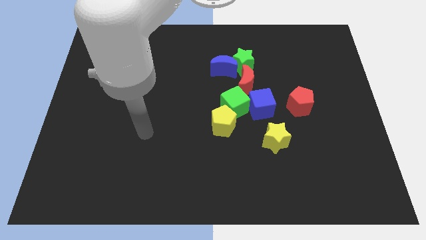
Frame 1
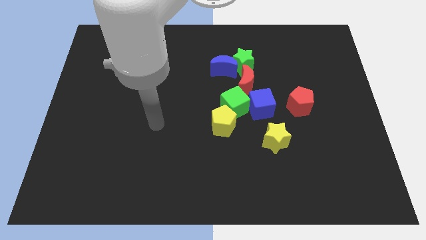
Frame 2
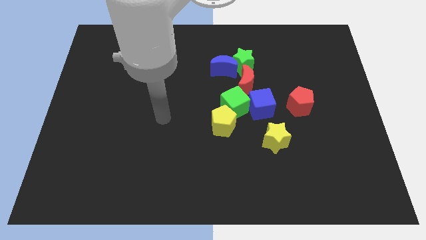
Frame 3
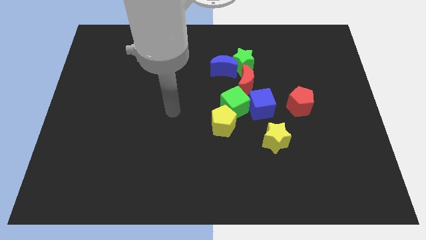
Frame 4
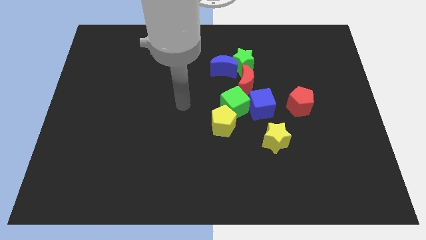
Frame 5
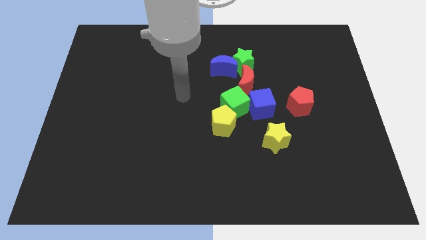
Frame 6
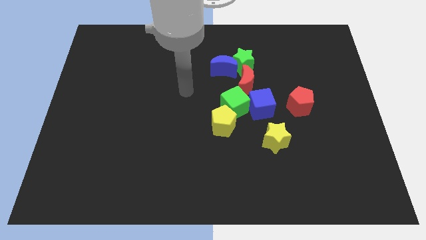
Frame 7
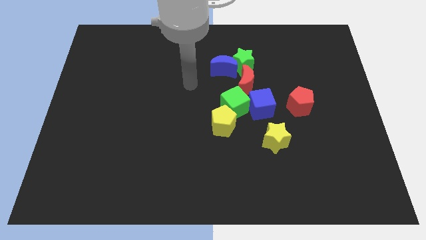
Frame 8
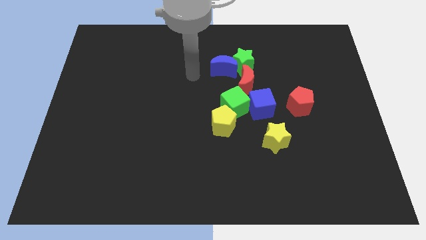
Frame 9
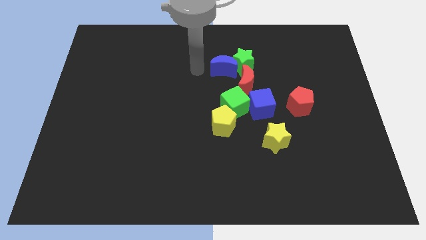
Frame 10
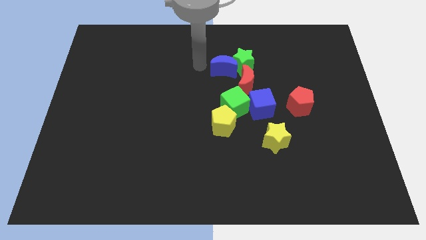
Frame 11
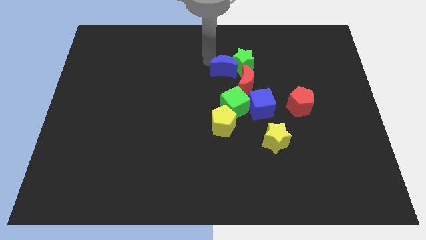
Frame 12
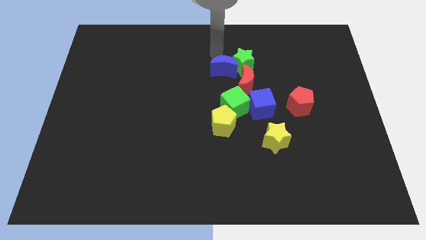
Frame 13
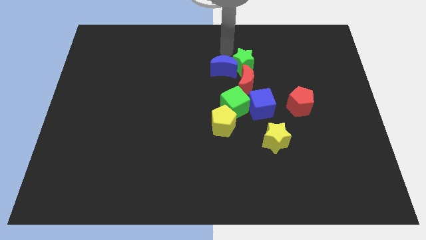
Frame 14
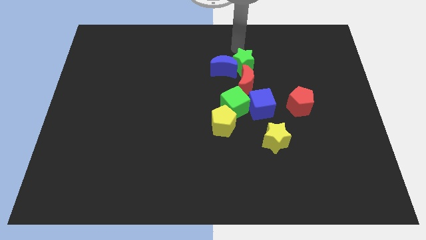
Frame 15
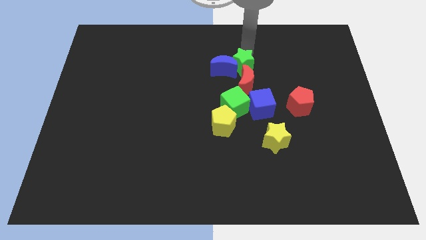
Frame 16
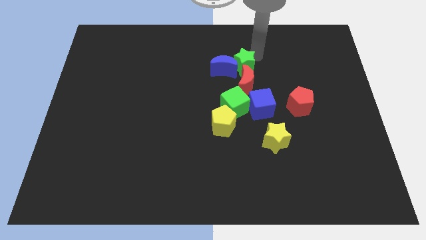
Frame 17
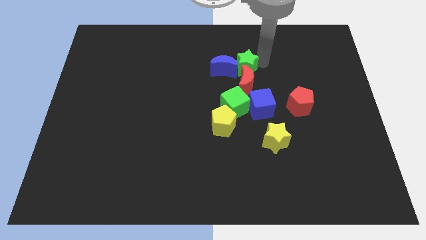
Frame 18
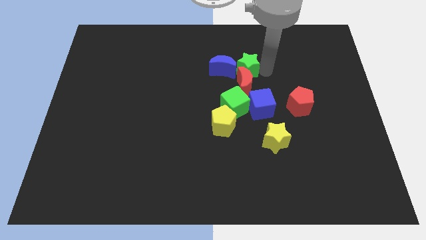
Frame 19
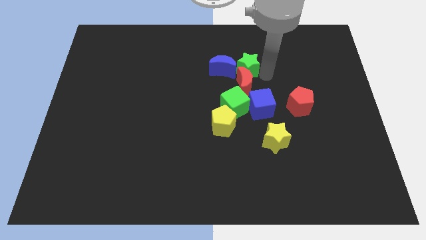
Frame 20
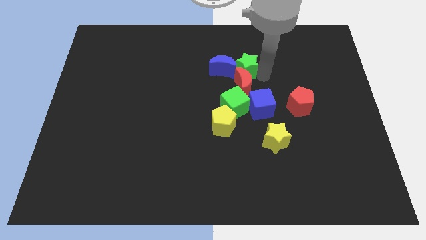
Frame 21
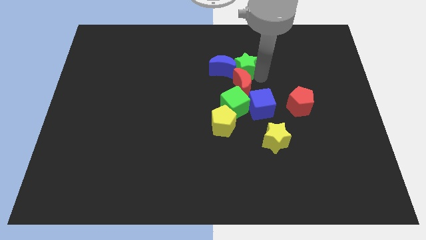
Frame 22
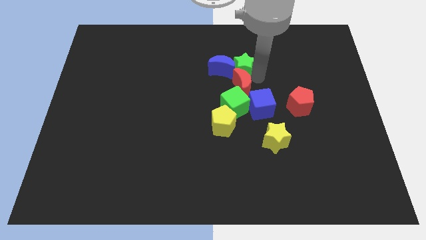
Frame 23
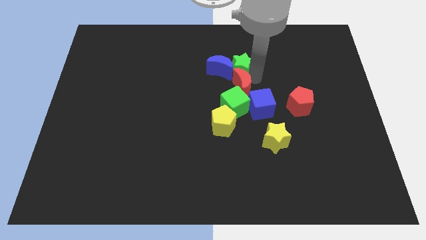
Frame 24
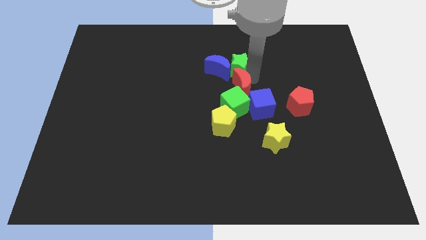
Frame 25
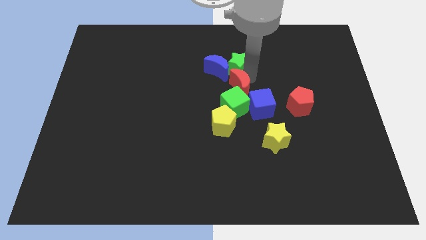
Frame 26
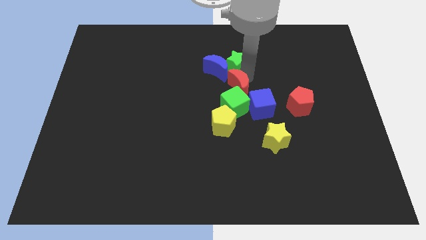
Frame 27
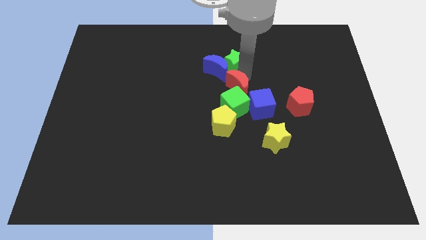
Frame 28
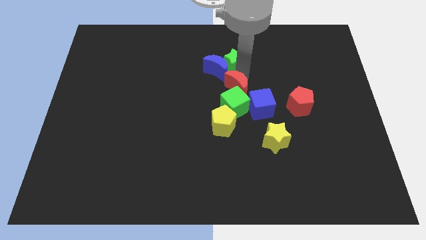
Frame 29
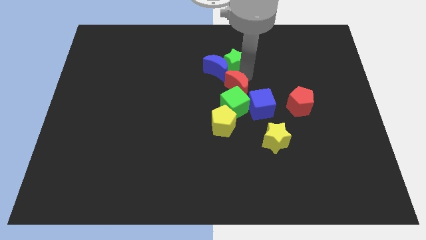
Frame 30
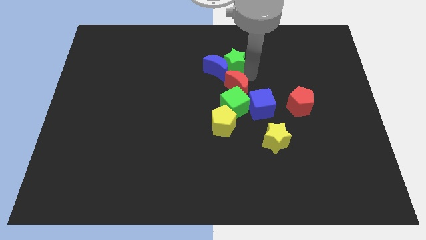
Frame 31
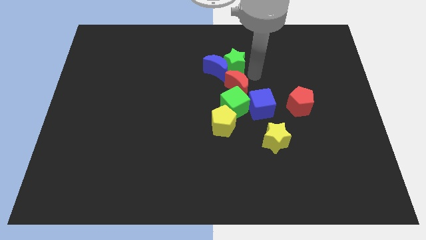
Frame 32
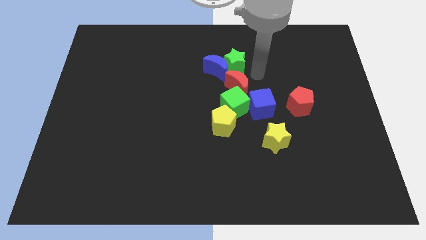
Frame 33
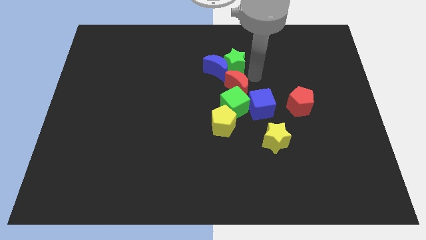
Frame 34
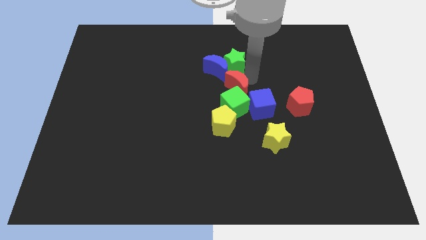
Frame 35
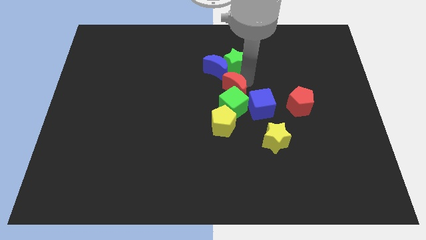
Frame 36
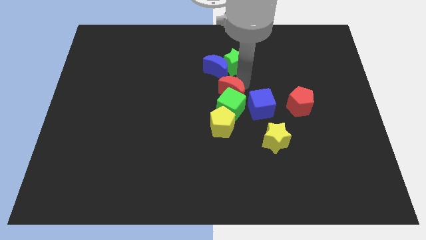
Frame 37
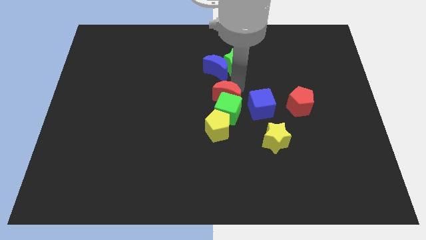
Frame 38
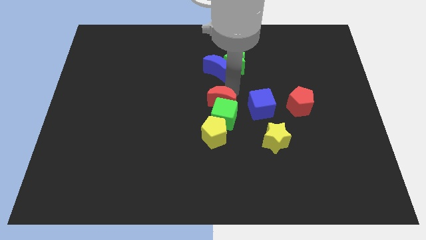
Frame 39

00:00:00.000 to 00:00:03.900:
slide the red moon downwards and to the left a bit

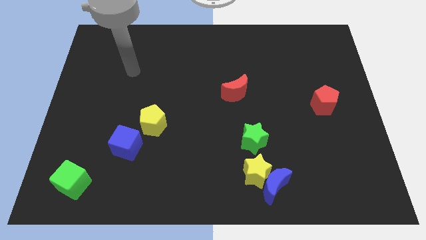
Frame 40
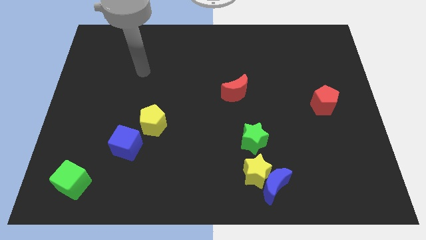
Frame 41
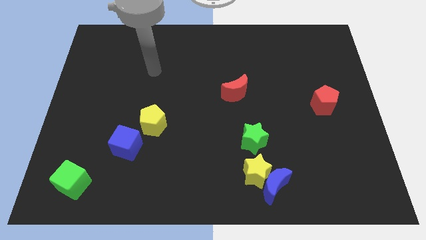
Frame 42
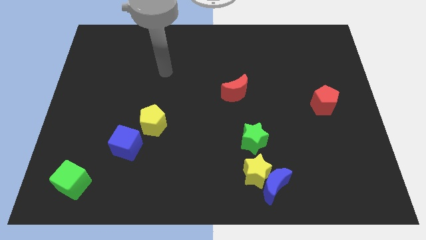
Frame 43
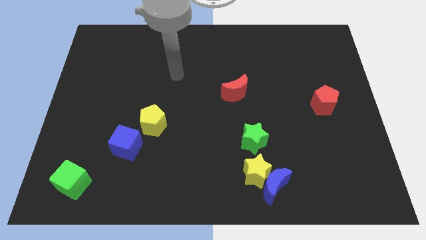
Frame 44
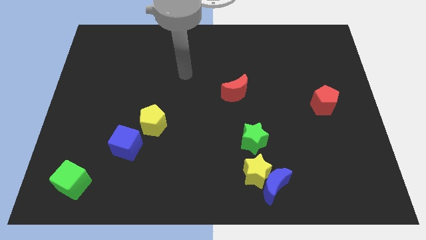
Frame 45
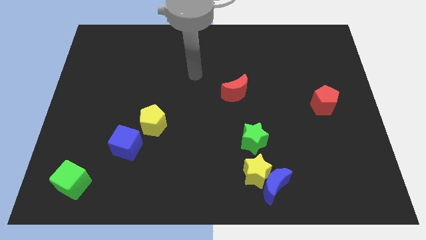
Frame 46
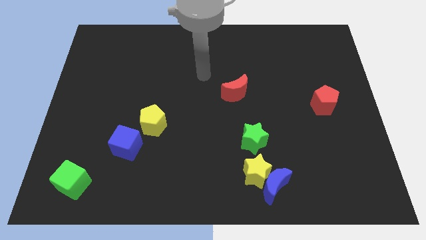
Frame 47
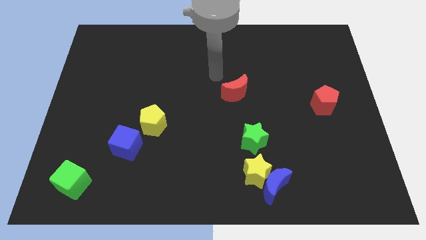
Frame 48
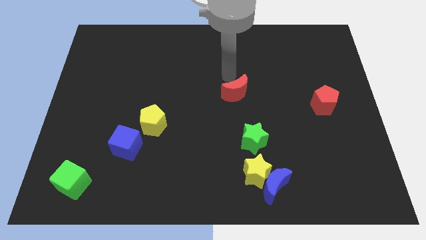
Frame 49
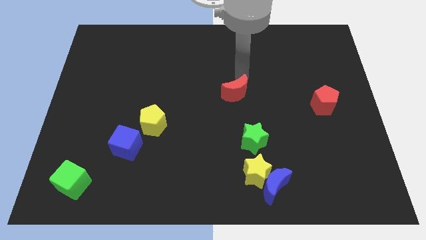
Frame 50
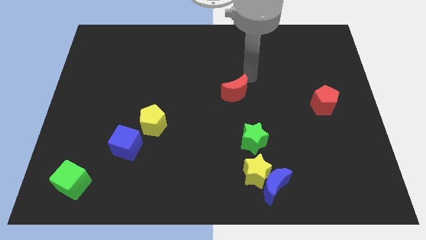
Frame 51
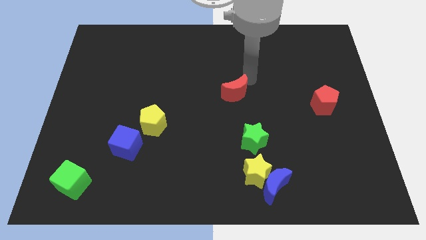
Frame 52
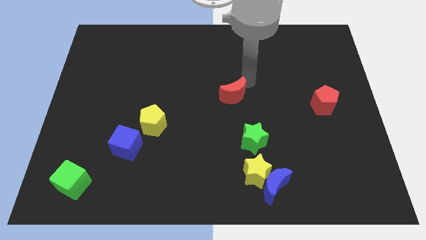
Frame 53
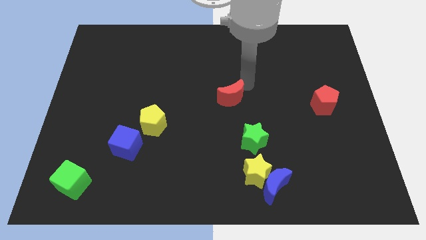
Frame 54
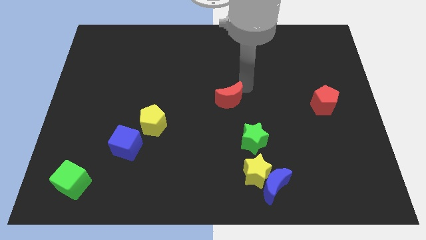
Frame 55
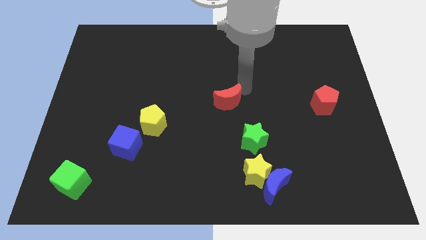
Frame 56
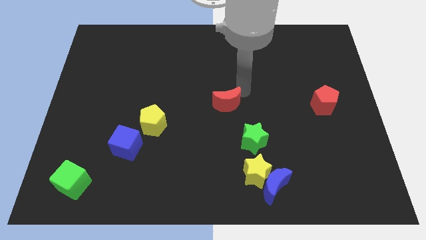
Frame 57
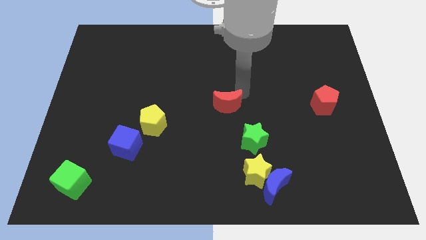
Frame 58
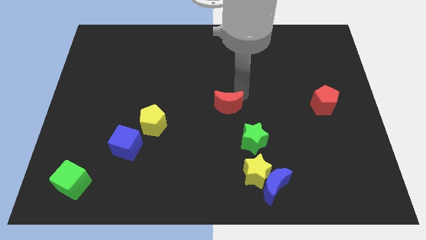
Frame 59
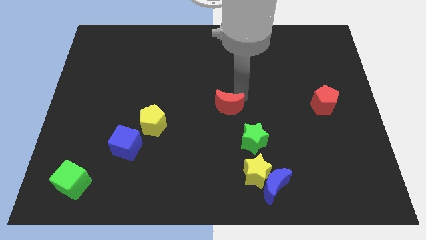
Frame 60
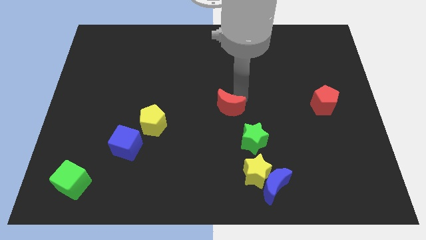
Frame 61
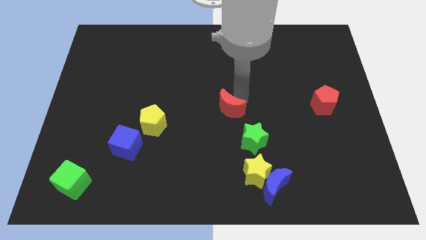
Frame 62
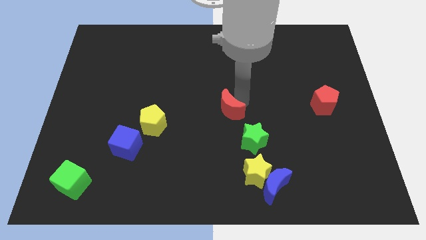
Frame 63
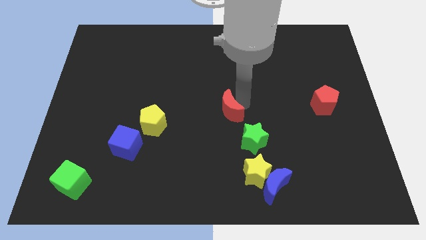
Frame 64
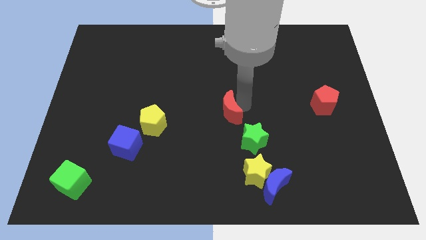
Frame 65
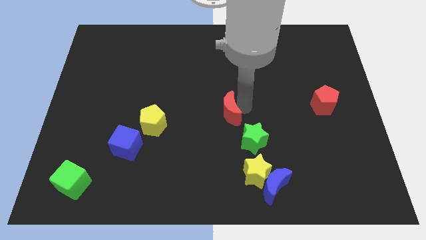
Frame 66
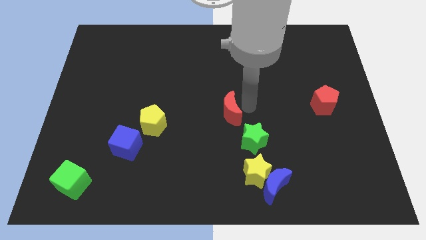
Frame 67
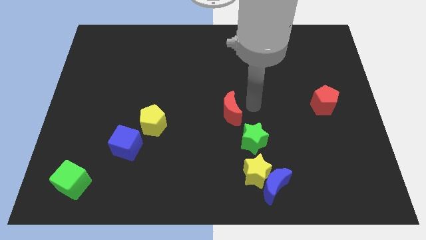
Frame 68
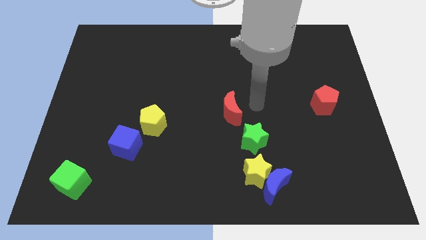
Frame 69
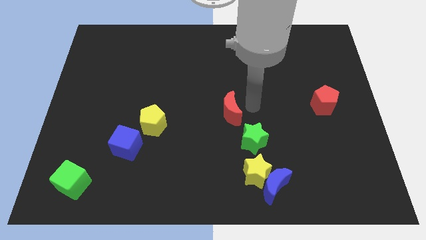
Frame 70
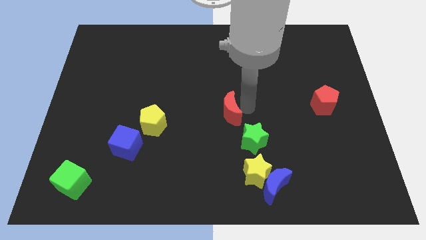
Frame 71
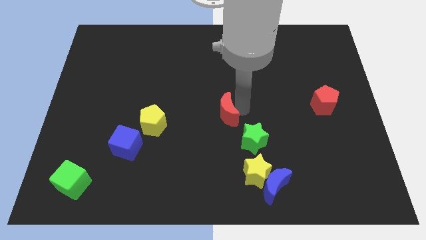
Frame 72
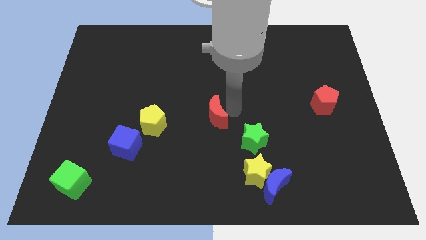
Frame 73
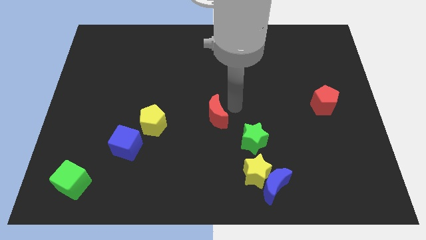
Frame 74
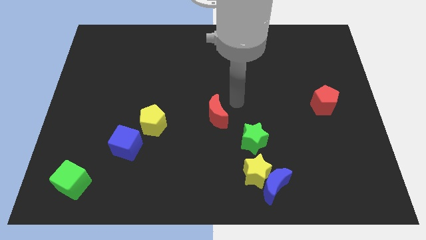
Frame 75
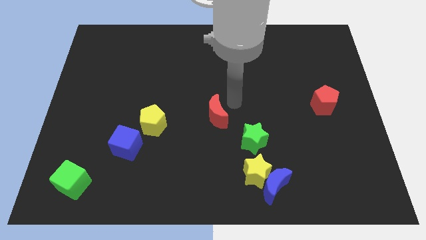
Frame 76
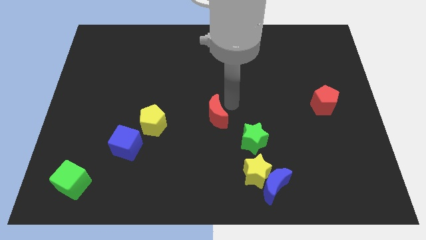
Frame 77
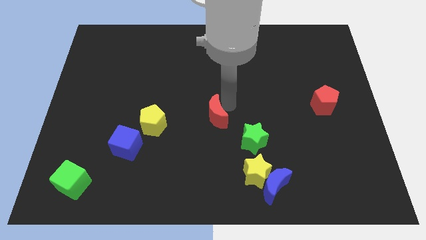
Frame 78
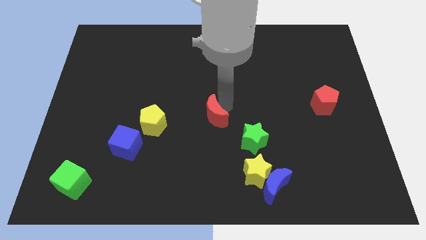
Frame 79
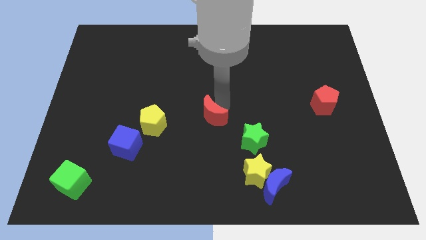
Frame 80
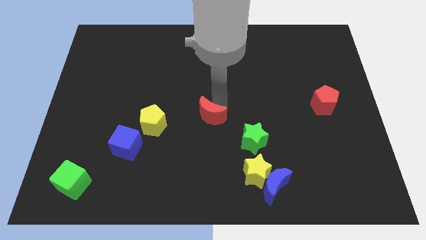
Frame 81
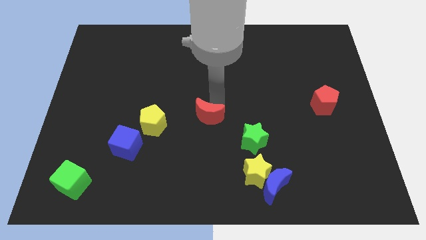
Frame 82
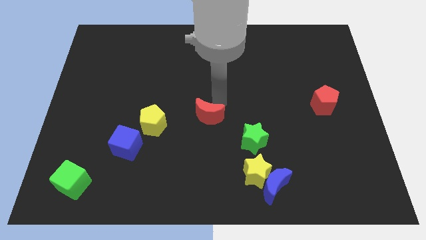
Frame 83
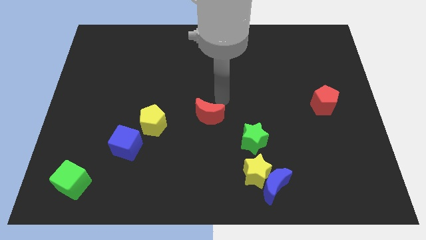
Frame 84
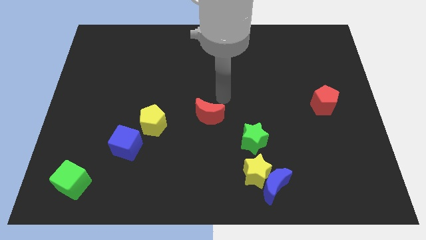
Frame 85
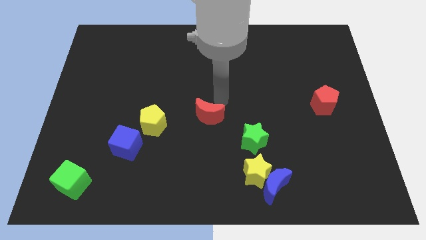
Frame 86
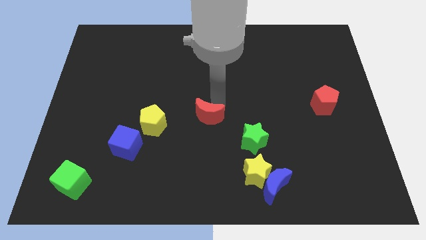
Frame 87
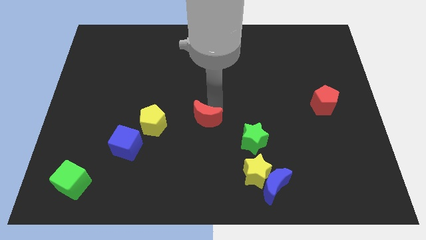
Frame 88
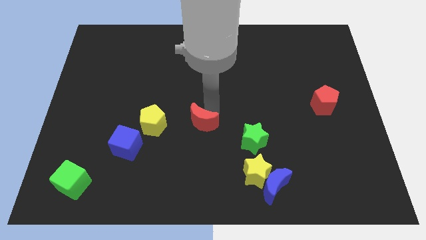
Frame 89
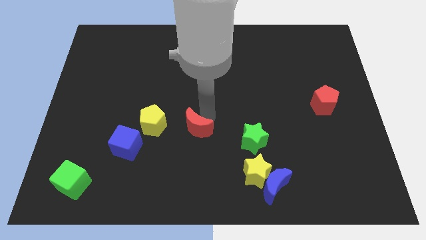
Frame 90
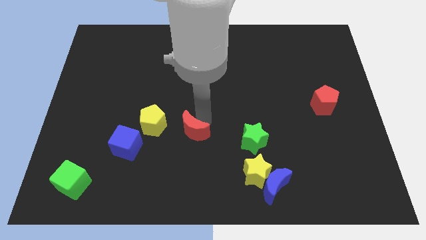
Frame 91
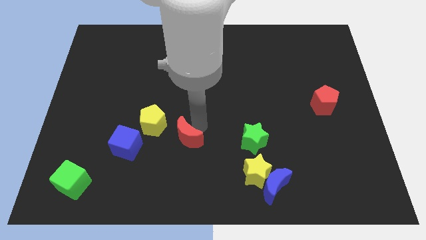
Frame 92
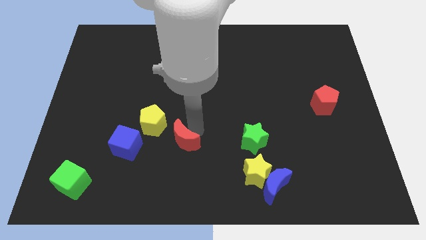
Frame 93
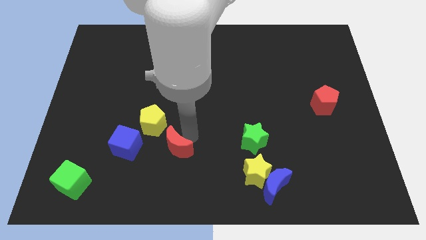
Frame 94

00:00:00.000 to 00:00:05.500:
slide the red moon downwards and left diagonally
